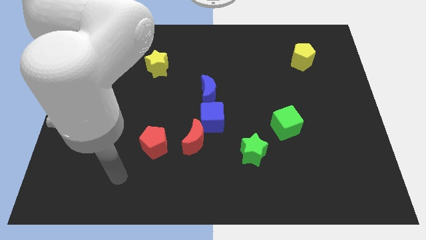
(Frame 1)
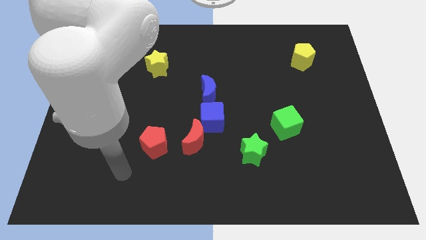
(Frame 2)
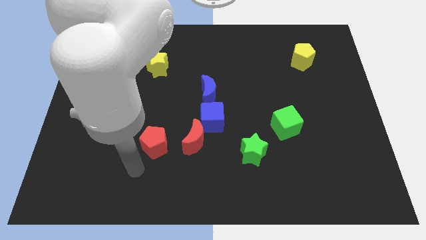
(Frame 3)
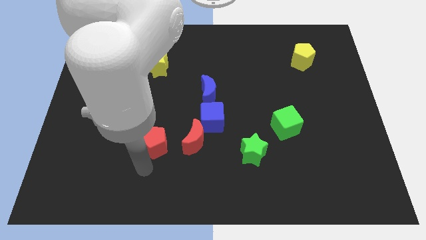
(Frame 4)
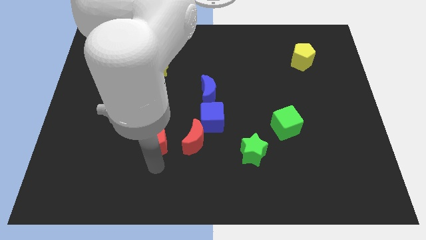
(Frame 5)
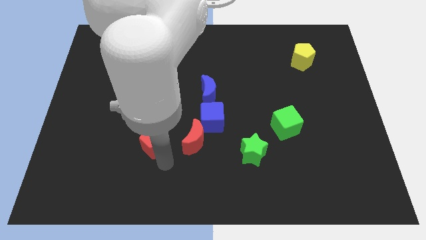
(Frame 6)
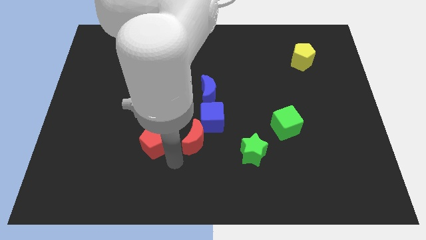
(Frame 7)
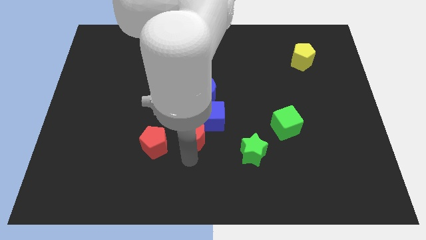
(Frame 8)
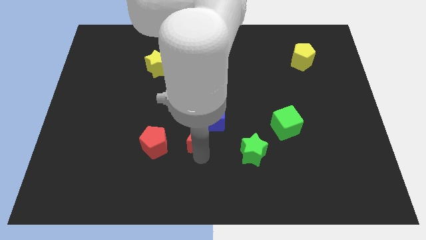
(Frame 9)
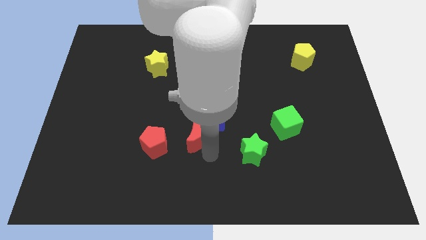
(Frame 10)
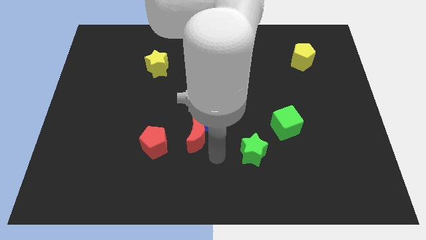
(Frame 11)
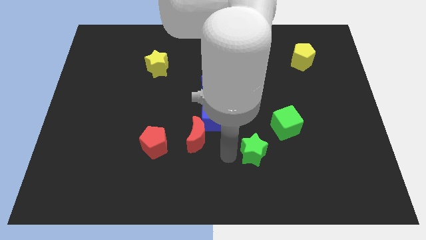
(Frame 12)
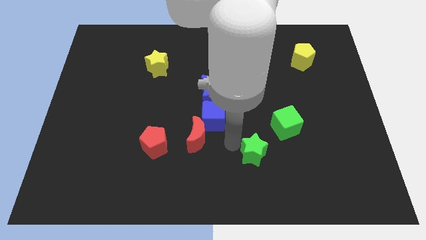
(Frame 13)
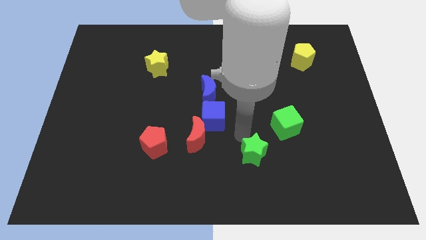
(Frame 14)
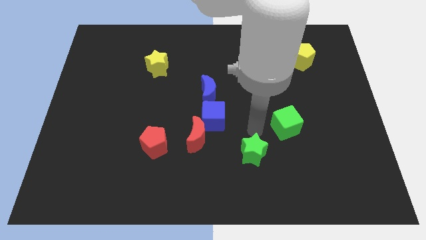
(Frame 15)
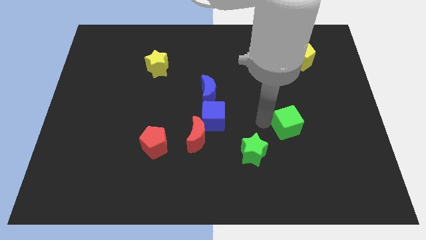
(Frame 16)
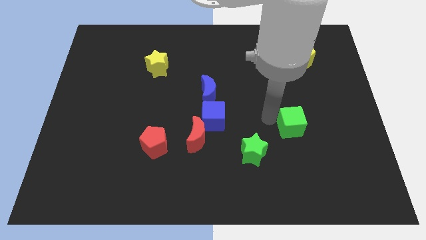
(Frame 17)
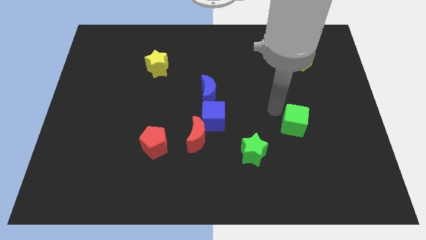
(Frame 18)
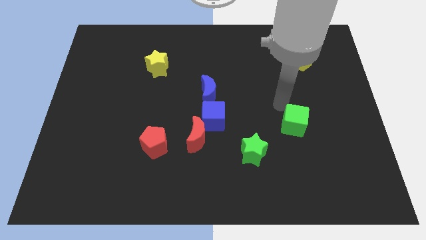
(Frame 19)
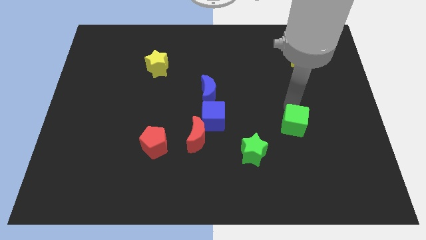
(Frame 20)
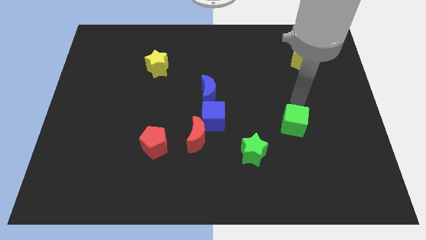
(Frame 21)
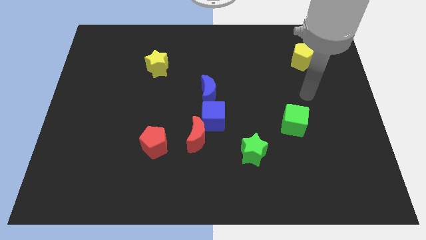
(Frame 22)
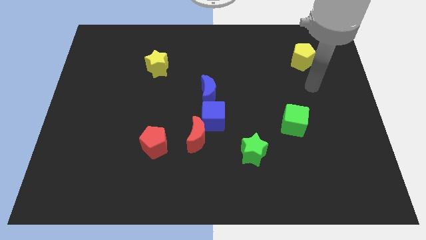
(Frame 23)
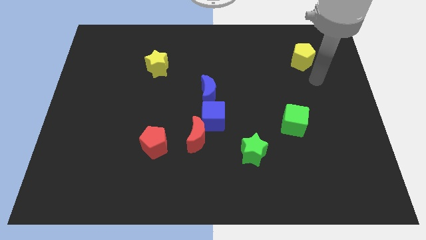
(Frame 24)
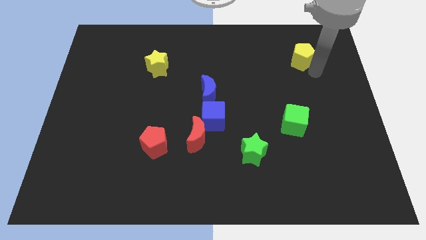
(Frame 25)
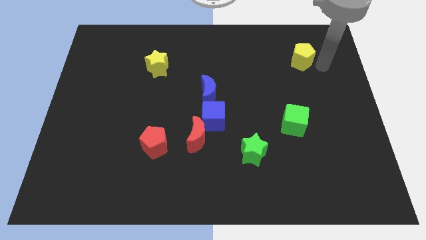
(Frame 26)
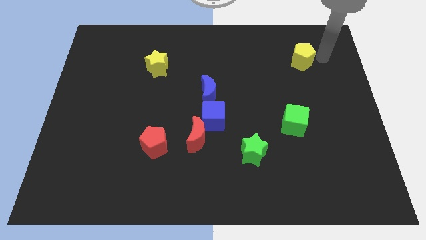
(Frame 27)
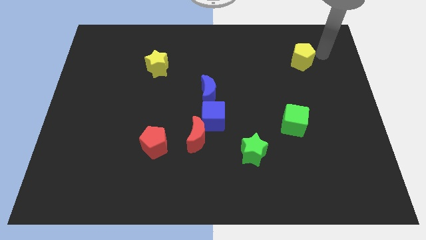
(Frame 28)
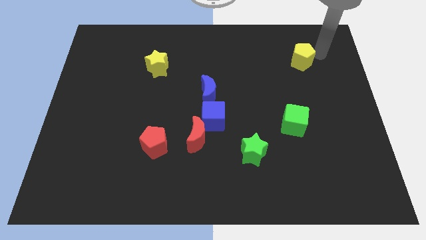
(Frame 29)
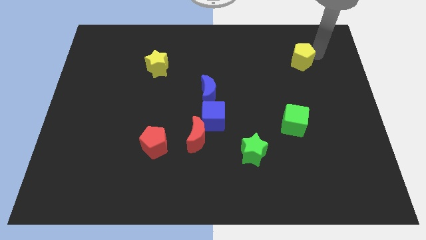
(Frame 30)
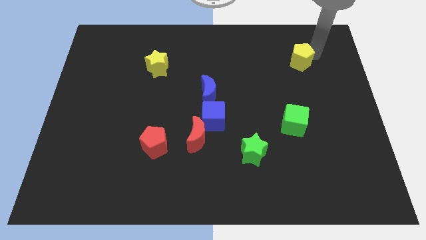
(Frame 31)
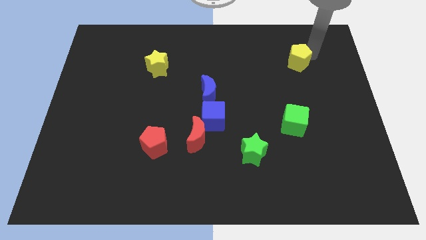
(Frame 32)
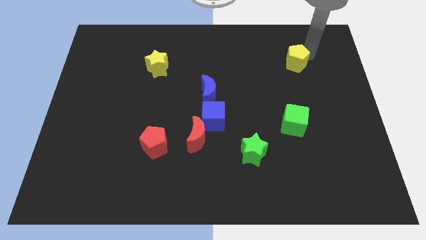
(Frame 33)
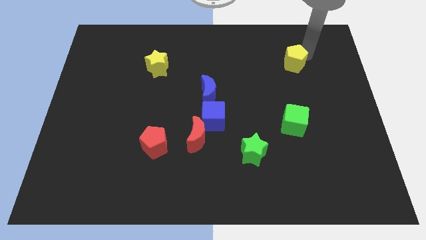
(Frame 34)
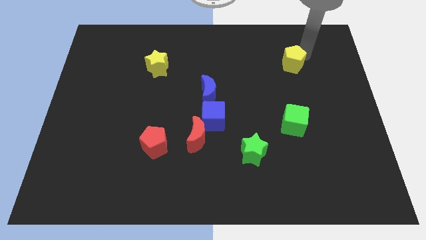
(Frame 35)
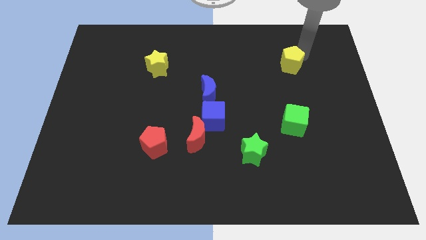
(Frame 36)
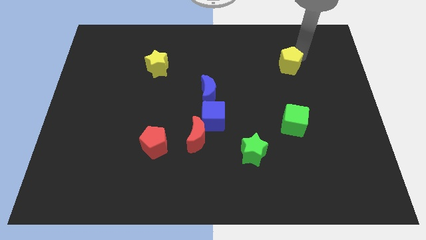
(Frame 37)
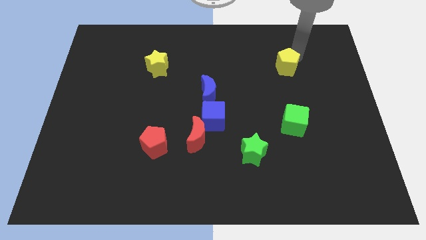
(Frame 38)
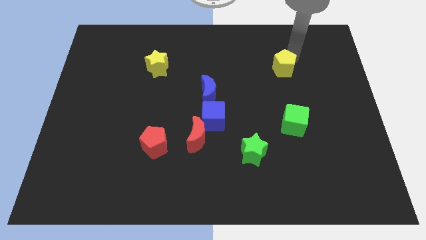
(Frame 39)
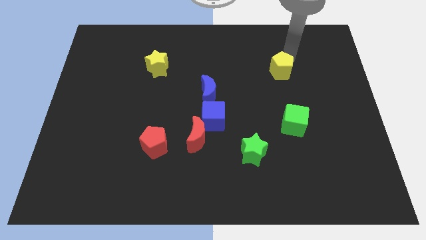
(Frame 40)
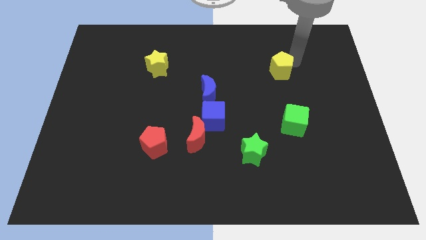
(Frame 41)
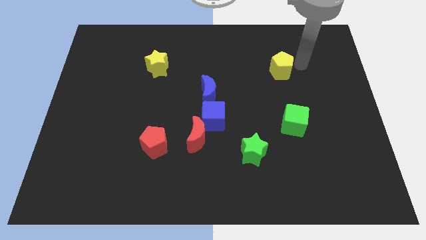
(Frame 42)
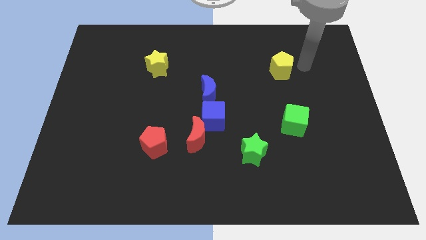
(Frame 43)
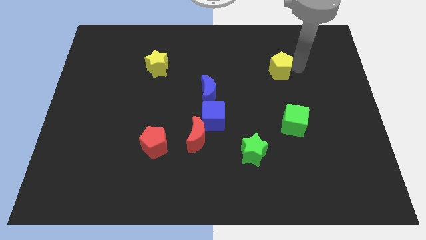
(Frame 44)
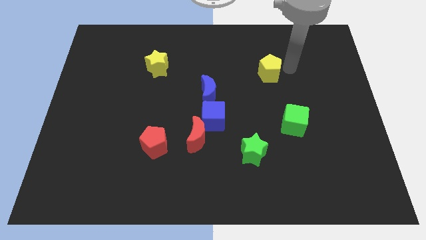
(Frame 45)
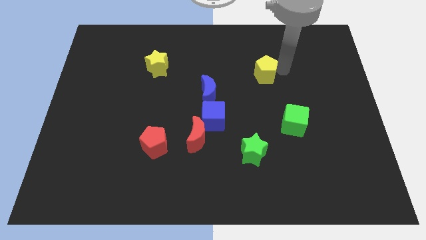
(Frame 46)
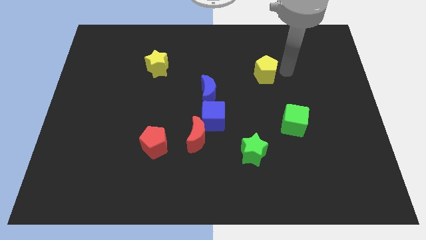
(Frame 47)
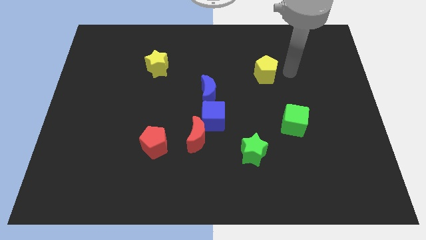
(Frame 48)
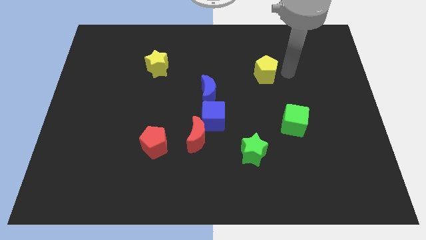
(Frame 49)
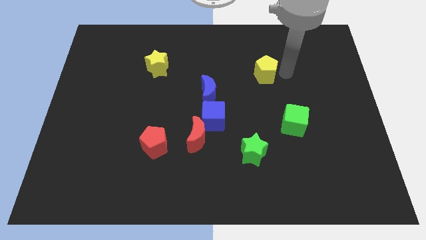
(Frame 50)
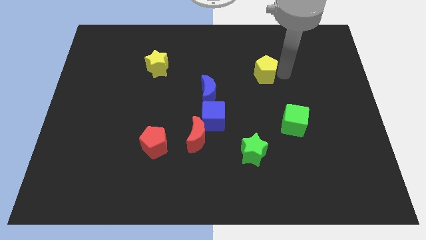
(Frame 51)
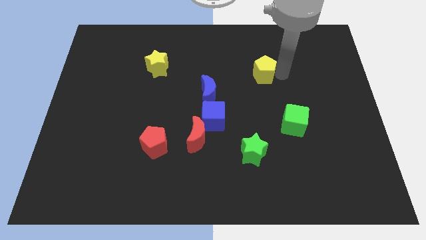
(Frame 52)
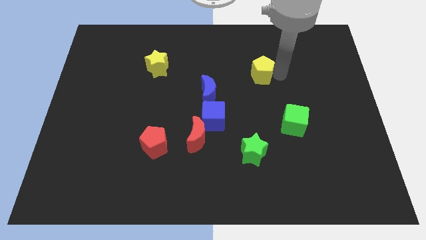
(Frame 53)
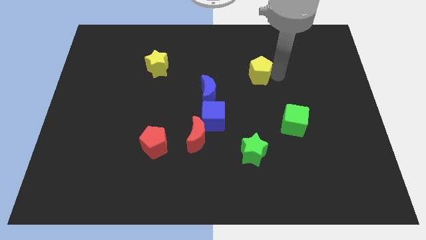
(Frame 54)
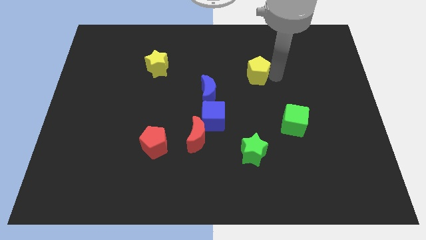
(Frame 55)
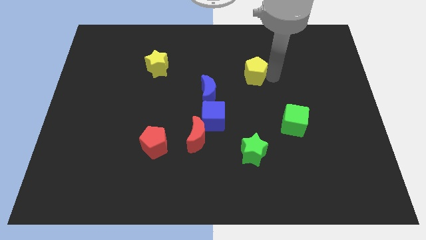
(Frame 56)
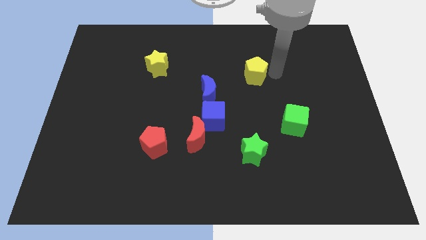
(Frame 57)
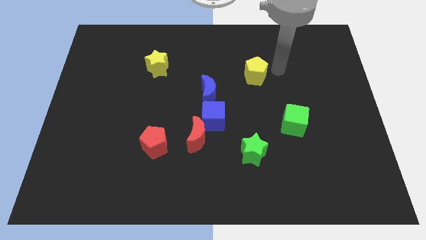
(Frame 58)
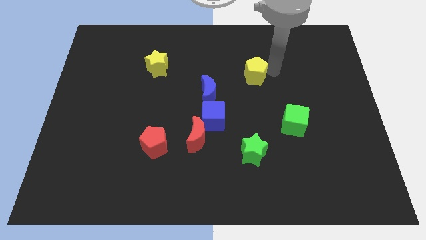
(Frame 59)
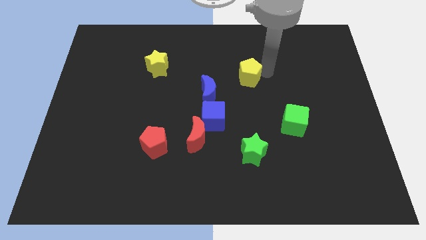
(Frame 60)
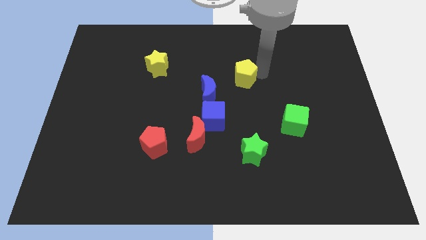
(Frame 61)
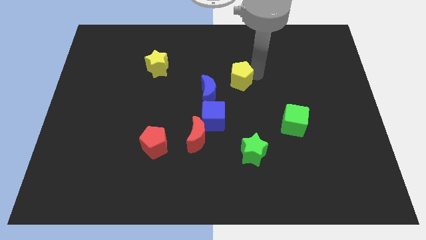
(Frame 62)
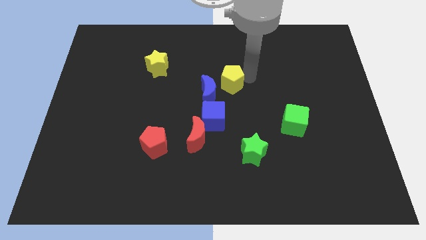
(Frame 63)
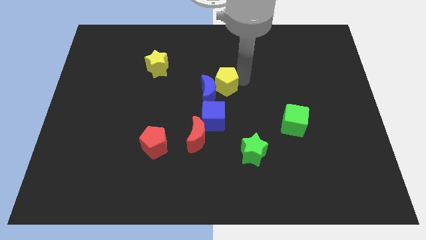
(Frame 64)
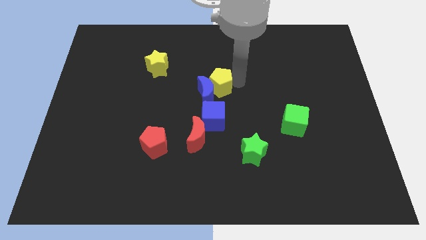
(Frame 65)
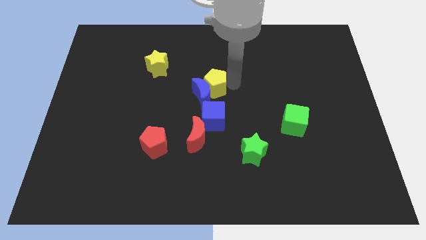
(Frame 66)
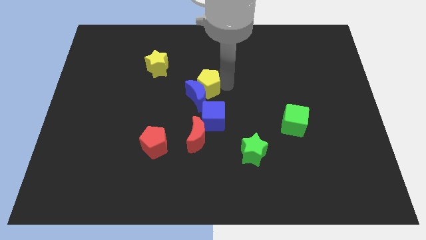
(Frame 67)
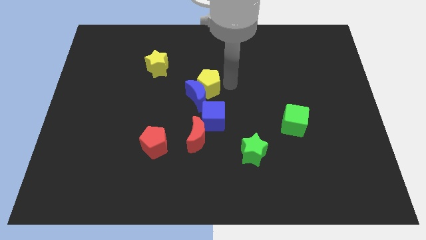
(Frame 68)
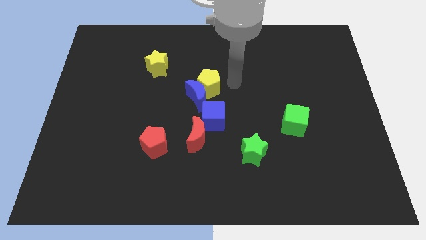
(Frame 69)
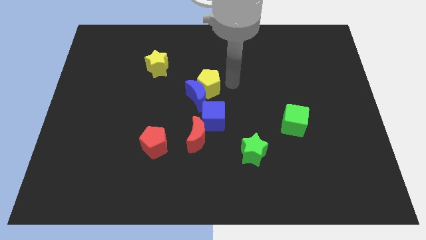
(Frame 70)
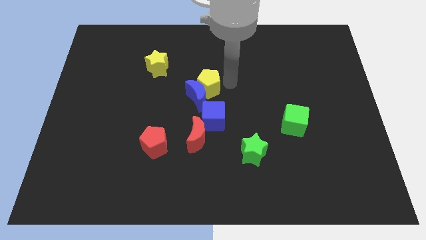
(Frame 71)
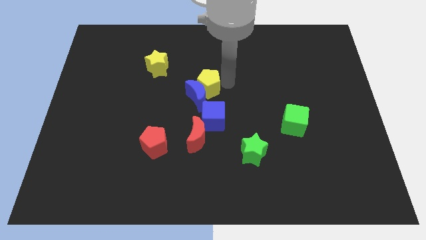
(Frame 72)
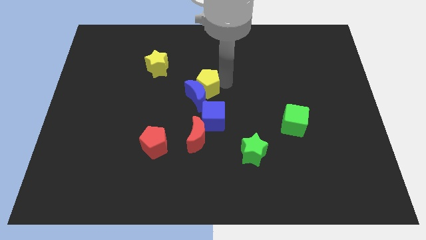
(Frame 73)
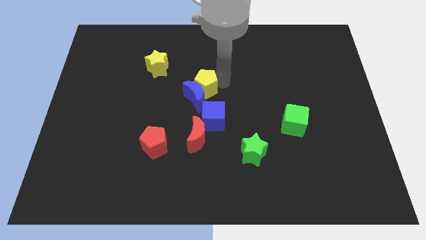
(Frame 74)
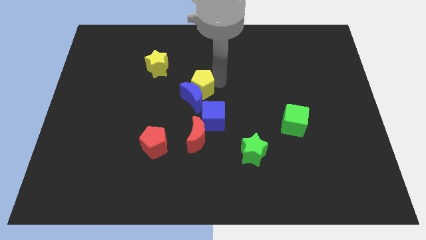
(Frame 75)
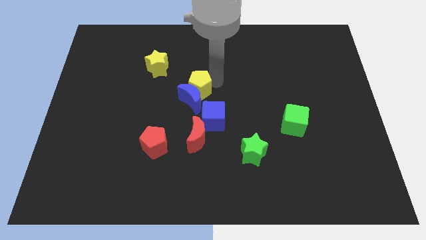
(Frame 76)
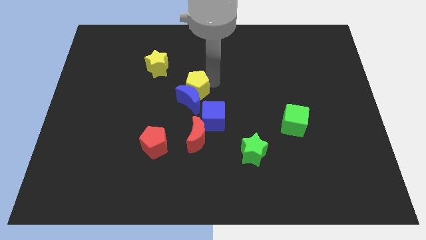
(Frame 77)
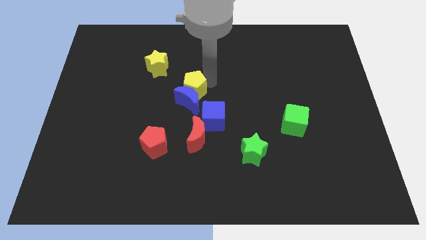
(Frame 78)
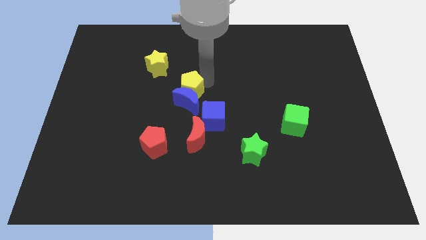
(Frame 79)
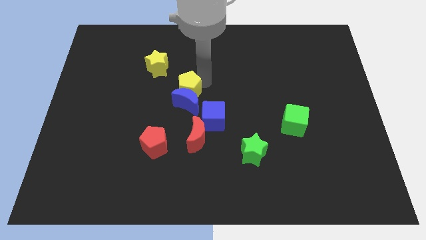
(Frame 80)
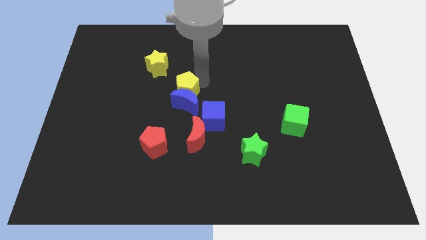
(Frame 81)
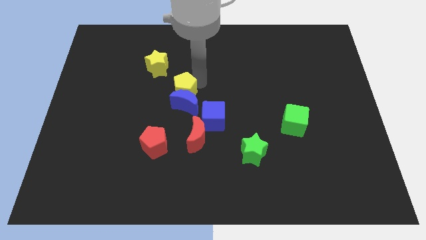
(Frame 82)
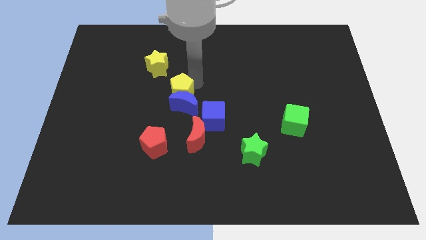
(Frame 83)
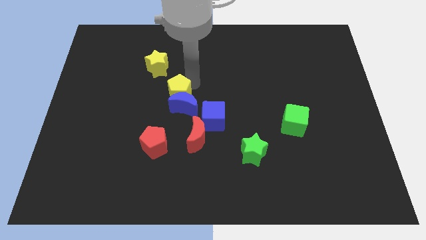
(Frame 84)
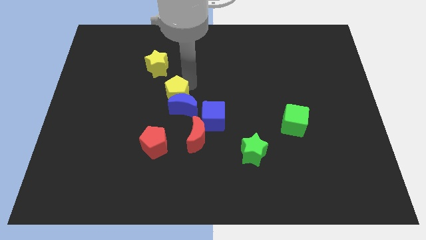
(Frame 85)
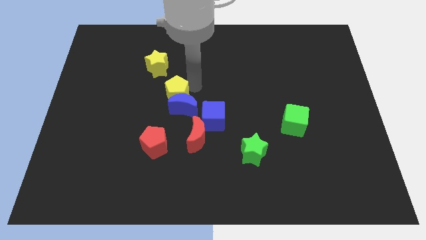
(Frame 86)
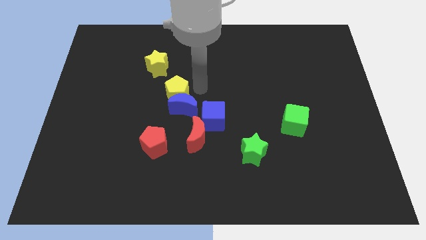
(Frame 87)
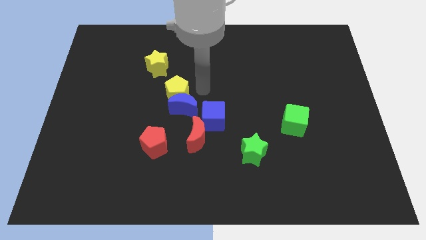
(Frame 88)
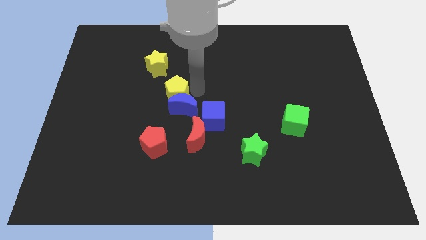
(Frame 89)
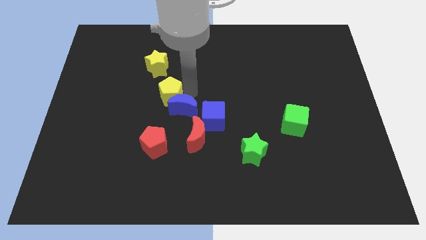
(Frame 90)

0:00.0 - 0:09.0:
move the yellow pentagon below the yellow star
